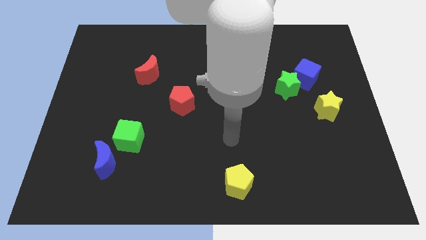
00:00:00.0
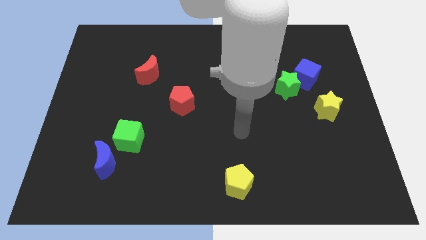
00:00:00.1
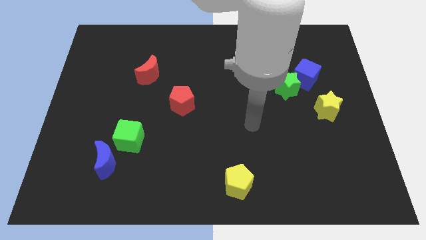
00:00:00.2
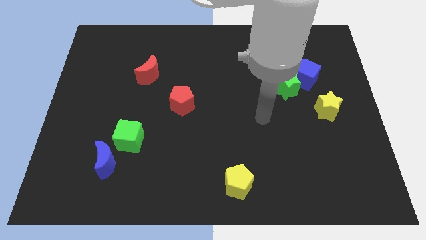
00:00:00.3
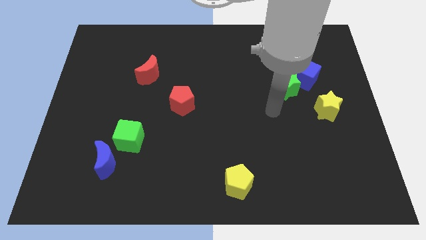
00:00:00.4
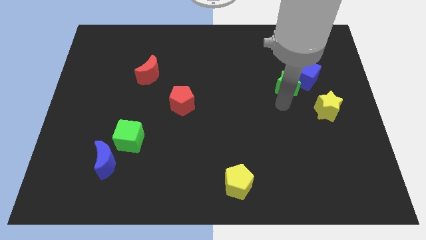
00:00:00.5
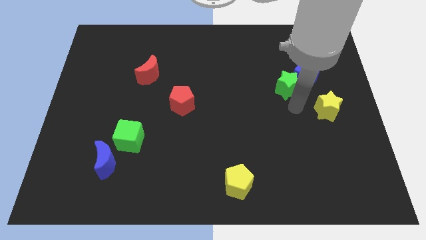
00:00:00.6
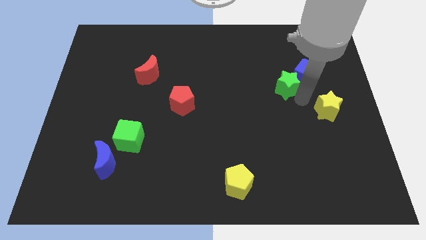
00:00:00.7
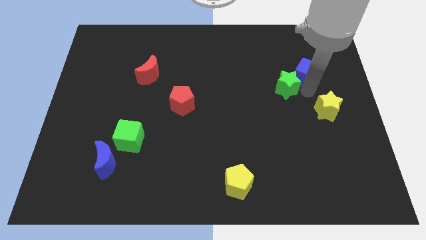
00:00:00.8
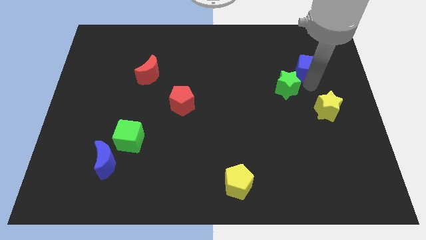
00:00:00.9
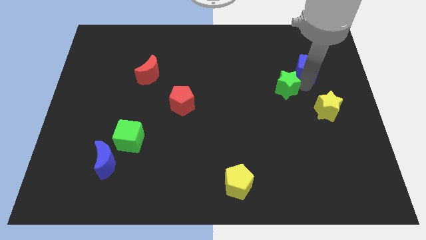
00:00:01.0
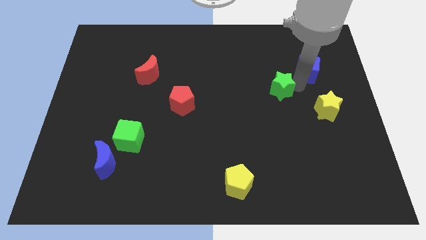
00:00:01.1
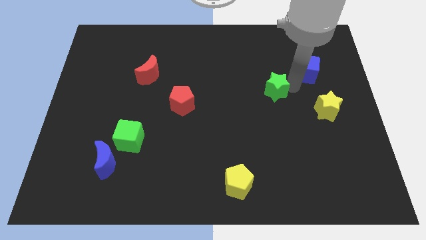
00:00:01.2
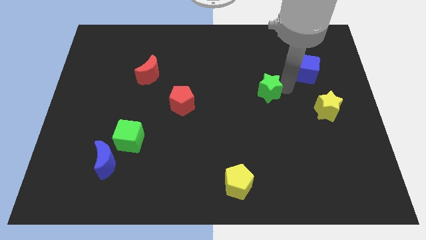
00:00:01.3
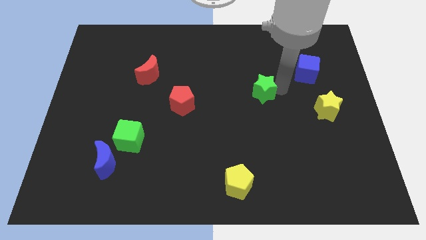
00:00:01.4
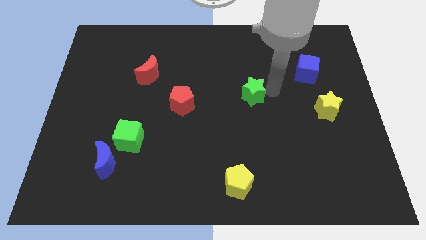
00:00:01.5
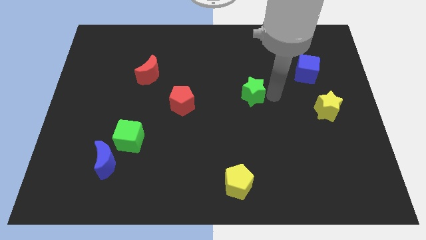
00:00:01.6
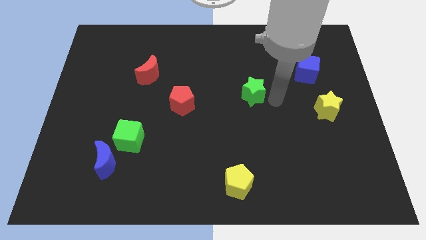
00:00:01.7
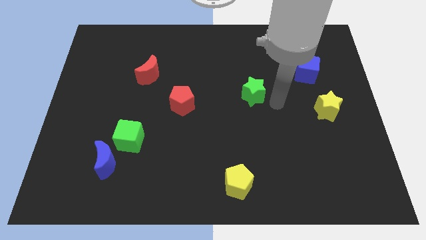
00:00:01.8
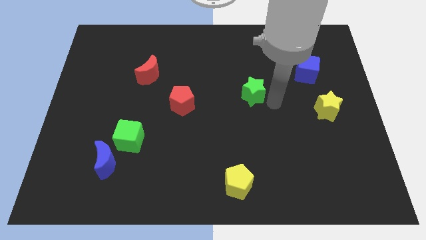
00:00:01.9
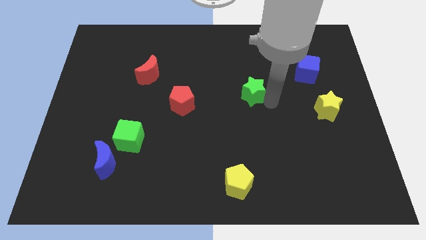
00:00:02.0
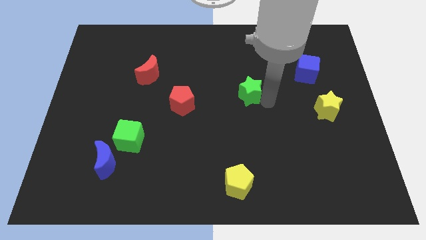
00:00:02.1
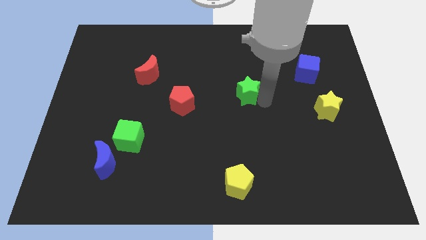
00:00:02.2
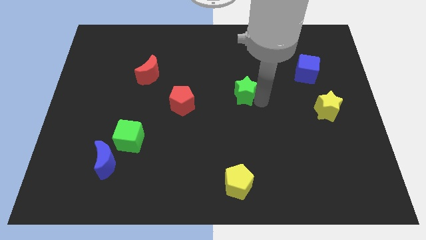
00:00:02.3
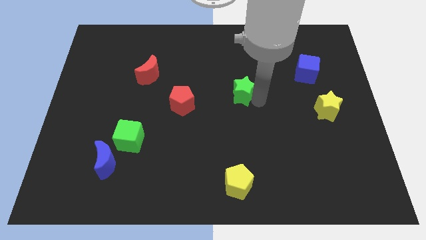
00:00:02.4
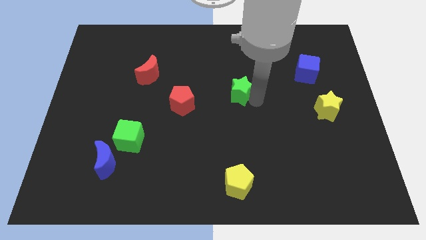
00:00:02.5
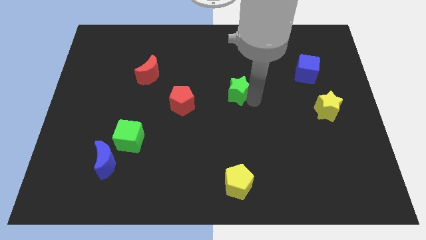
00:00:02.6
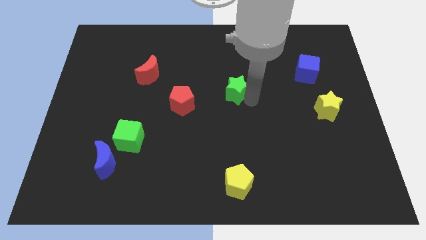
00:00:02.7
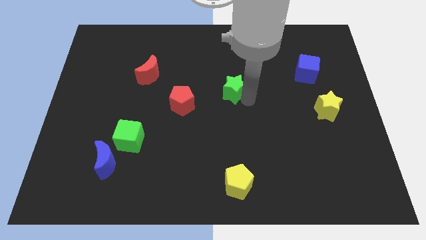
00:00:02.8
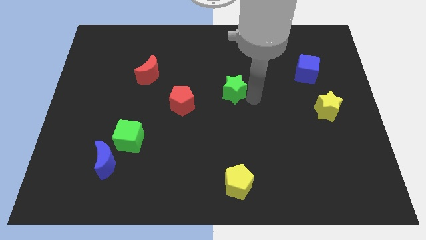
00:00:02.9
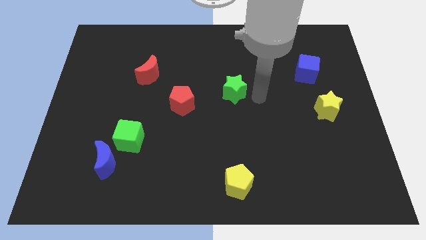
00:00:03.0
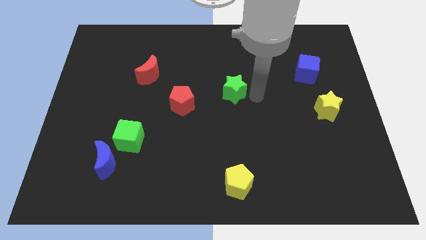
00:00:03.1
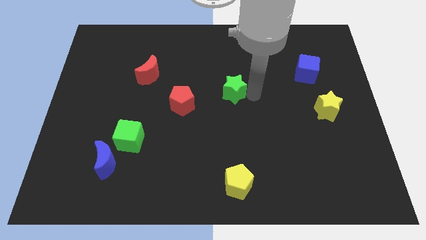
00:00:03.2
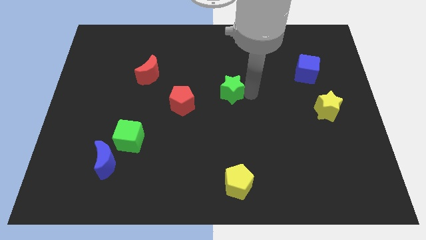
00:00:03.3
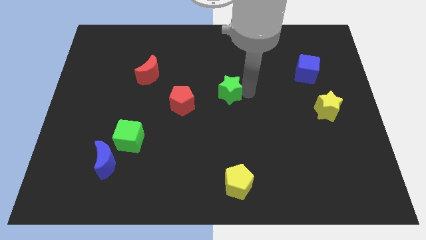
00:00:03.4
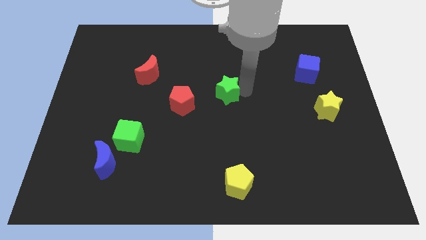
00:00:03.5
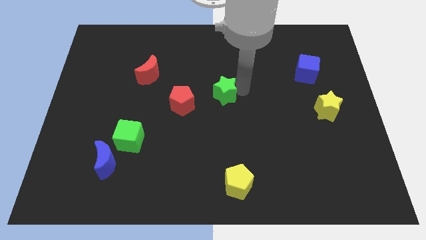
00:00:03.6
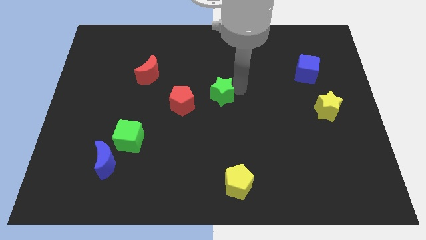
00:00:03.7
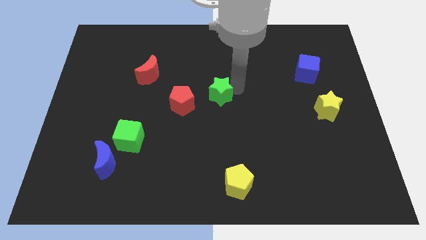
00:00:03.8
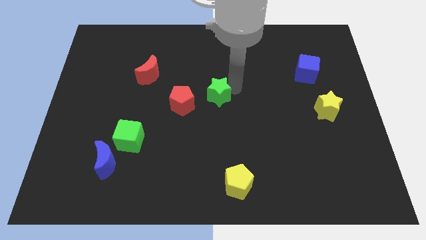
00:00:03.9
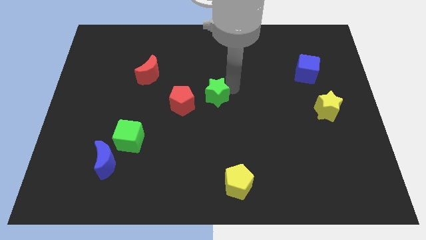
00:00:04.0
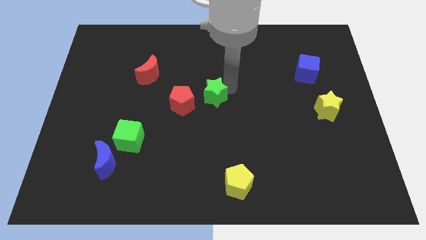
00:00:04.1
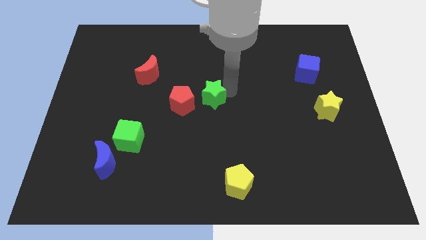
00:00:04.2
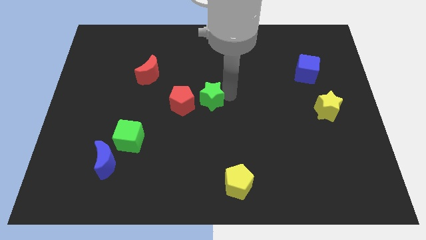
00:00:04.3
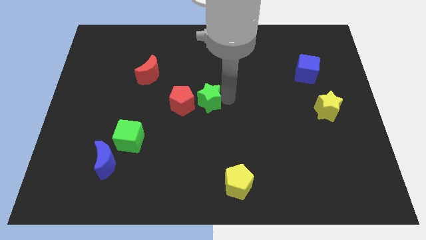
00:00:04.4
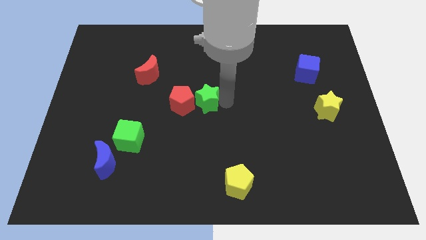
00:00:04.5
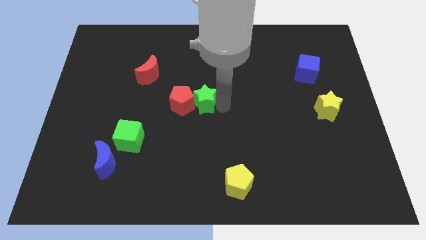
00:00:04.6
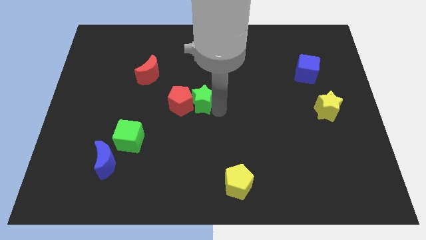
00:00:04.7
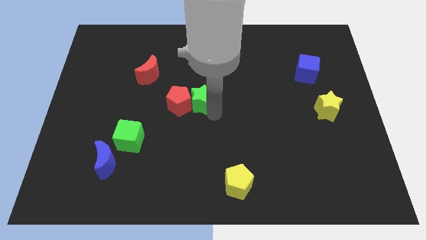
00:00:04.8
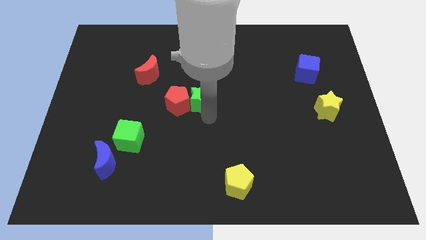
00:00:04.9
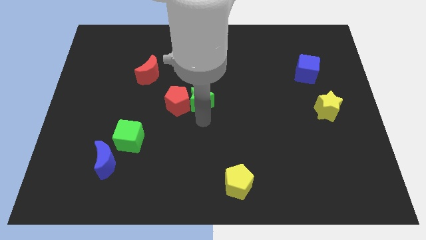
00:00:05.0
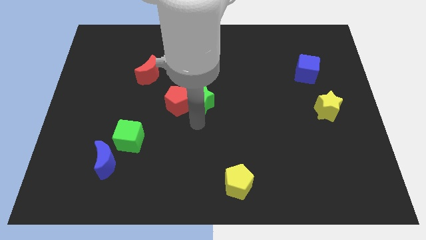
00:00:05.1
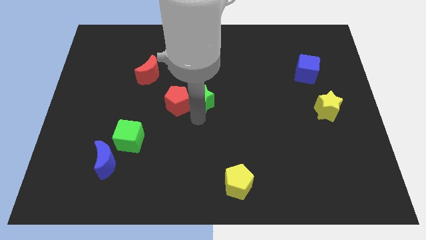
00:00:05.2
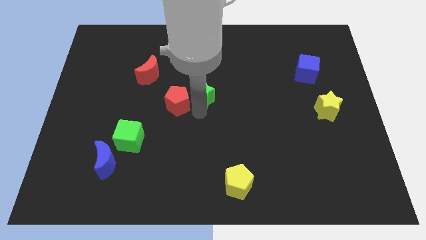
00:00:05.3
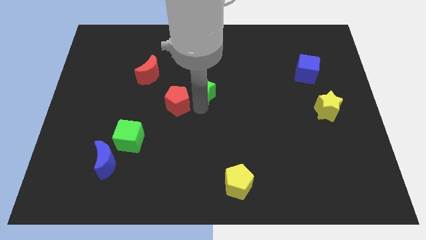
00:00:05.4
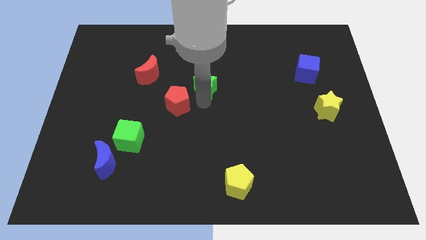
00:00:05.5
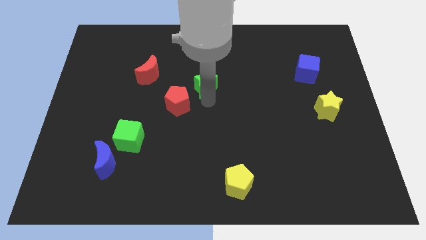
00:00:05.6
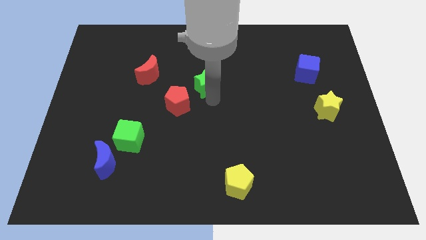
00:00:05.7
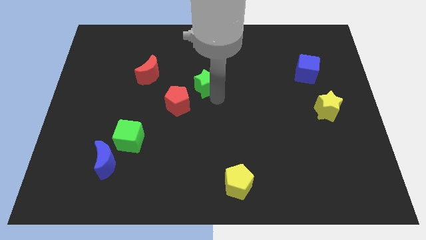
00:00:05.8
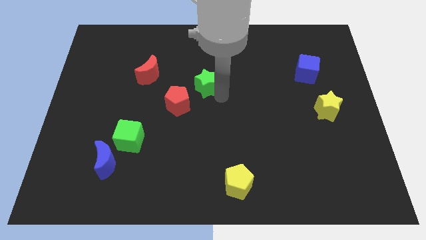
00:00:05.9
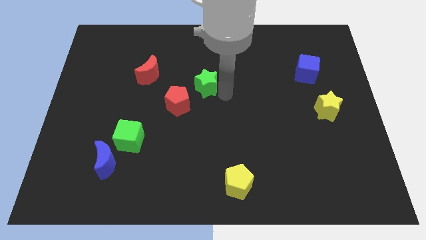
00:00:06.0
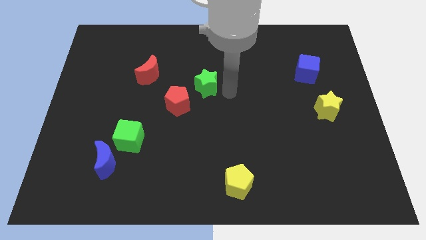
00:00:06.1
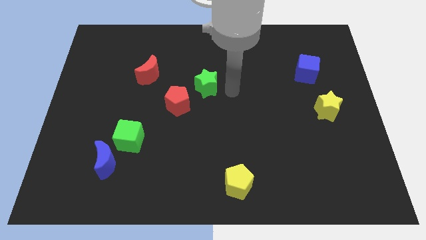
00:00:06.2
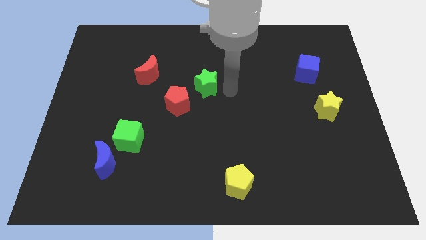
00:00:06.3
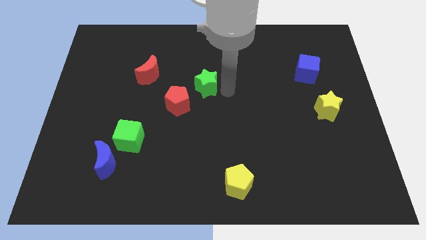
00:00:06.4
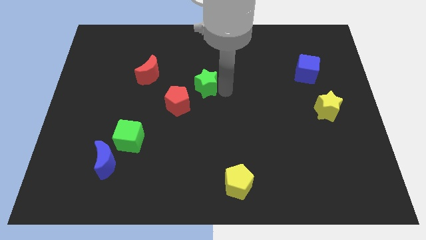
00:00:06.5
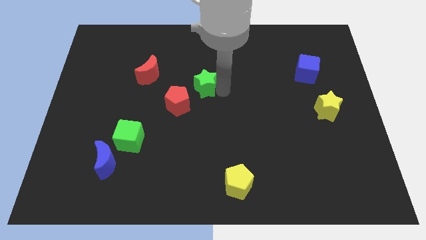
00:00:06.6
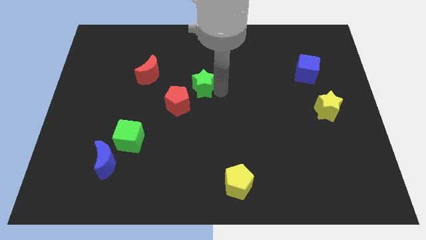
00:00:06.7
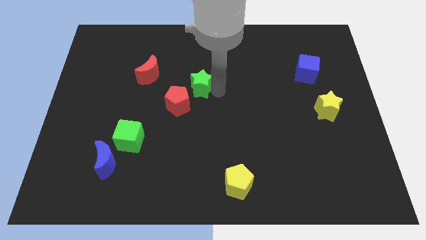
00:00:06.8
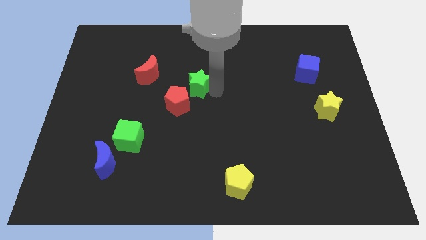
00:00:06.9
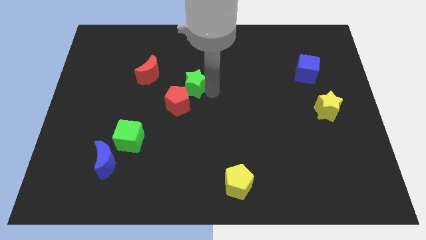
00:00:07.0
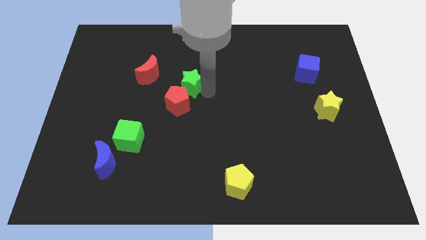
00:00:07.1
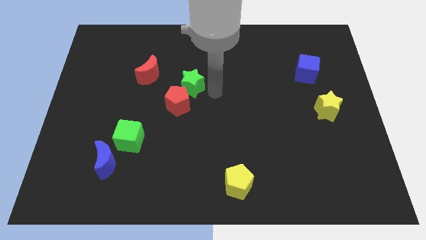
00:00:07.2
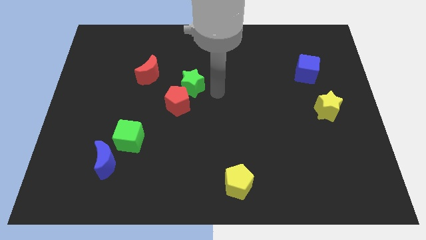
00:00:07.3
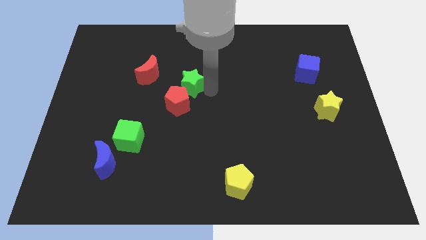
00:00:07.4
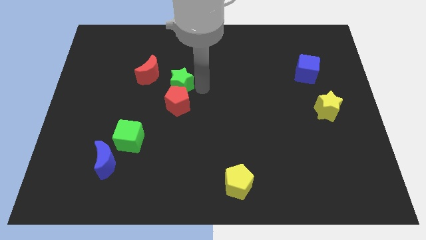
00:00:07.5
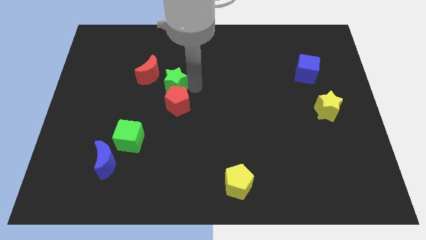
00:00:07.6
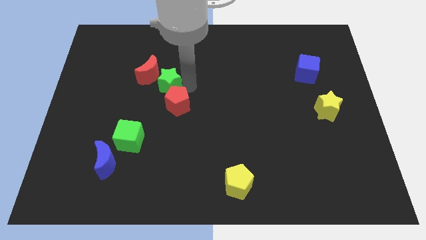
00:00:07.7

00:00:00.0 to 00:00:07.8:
slide the green star next to the red moon

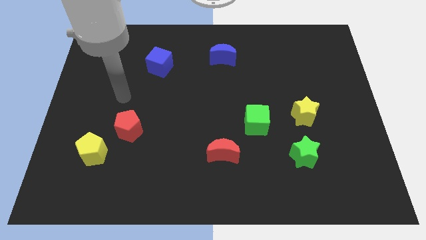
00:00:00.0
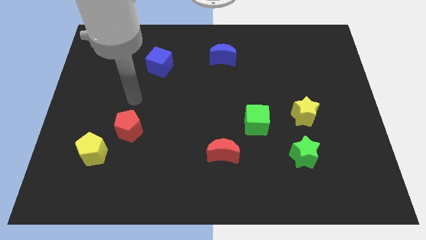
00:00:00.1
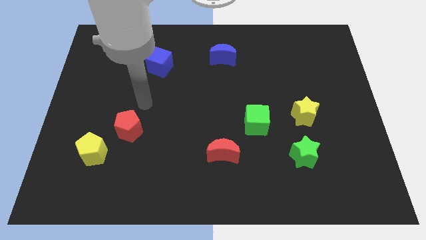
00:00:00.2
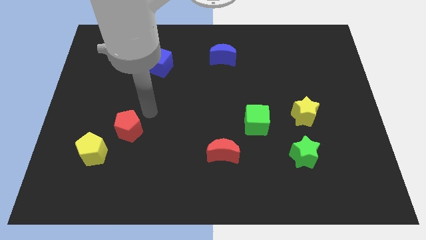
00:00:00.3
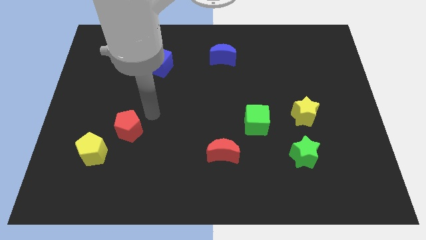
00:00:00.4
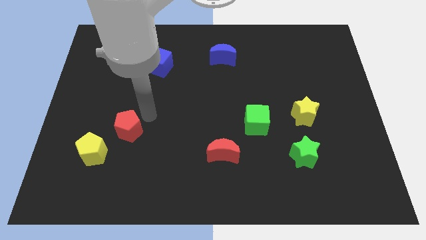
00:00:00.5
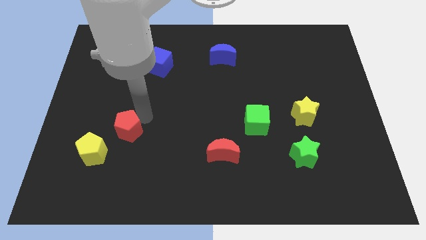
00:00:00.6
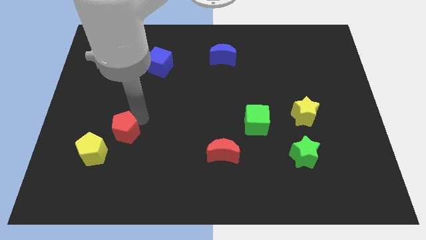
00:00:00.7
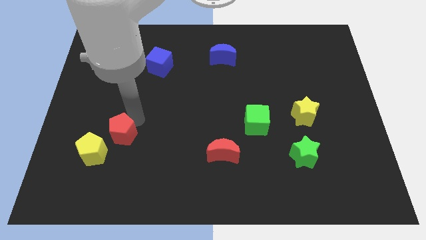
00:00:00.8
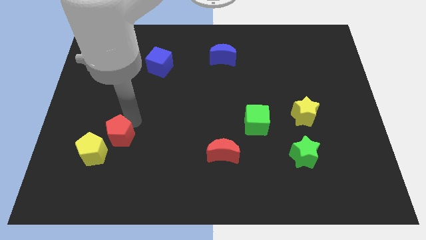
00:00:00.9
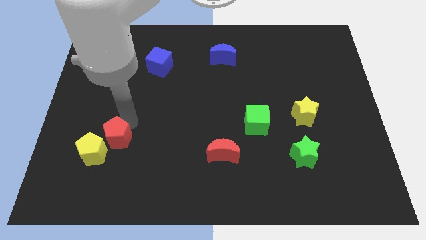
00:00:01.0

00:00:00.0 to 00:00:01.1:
move the red pentagon next to the yellow pentagon
